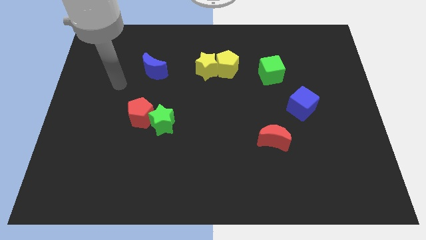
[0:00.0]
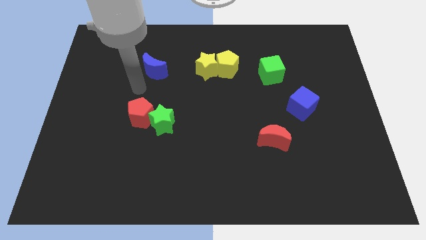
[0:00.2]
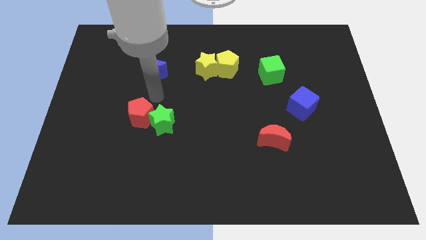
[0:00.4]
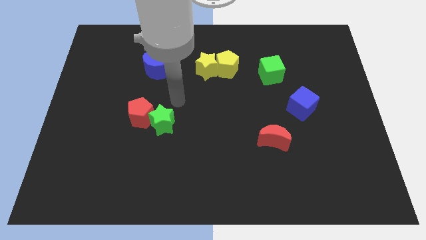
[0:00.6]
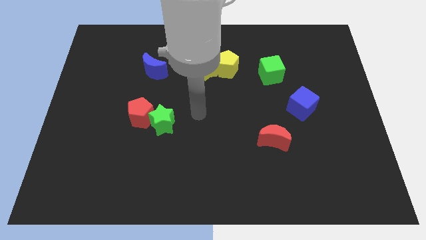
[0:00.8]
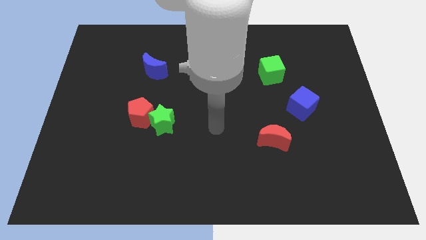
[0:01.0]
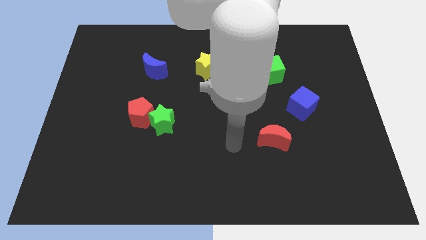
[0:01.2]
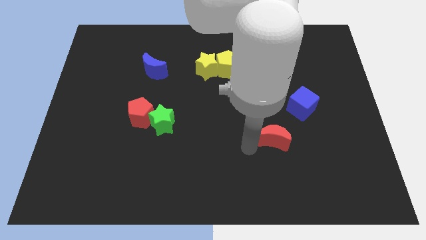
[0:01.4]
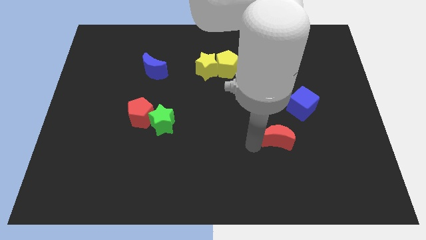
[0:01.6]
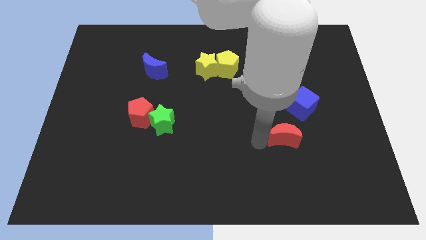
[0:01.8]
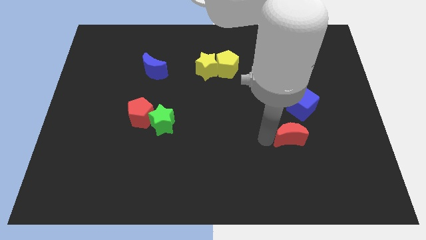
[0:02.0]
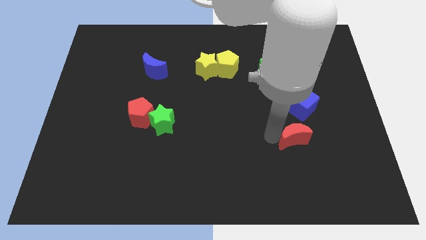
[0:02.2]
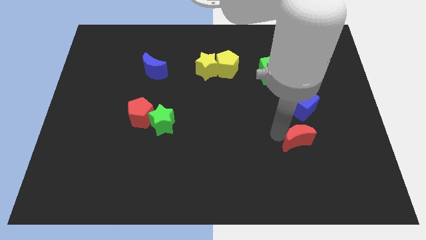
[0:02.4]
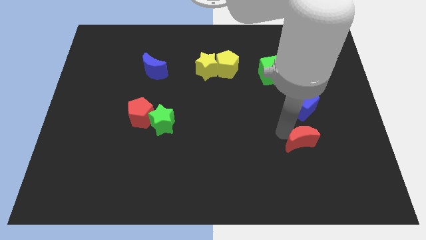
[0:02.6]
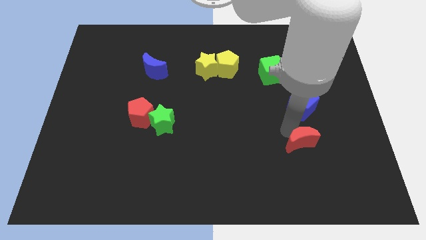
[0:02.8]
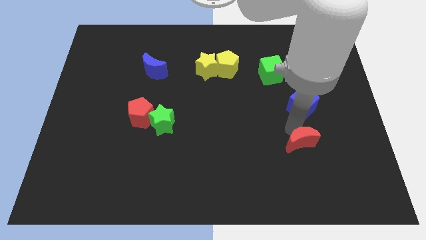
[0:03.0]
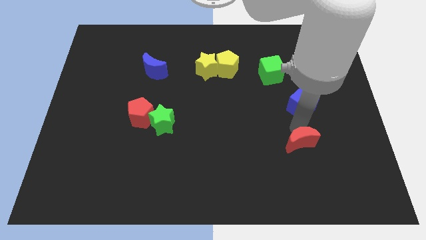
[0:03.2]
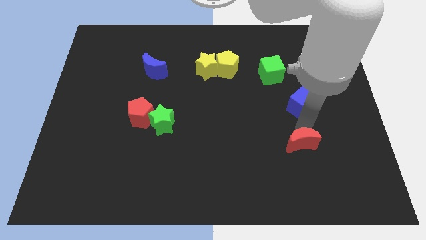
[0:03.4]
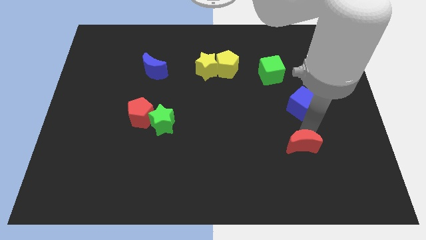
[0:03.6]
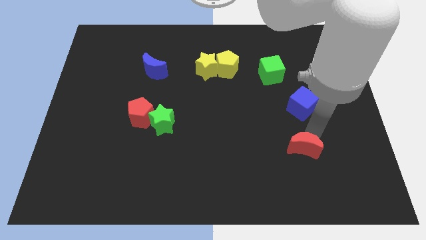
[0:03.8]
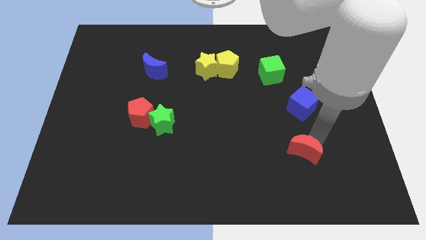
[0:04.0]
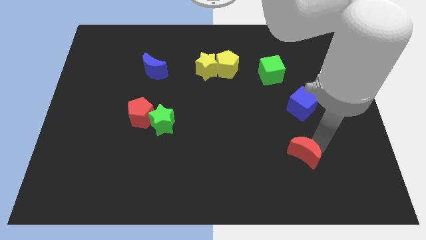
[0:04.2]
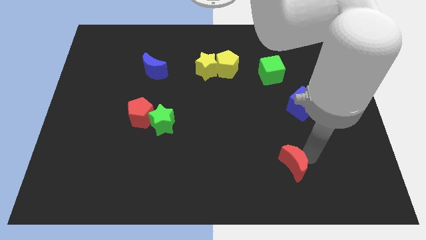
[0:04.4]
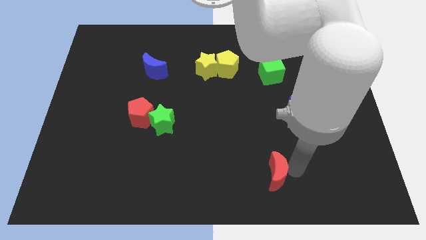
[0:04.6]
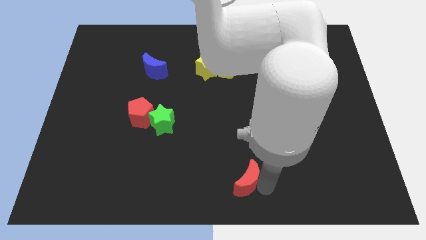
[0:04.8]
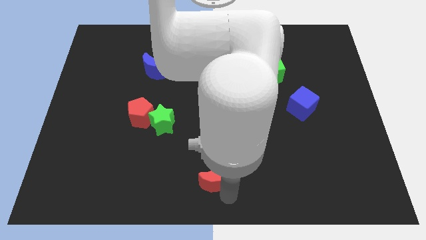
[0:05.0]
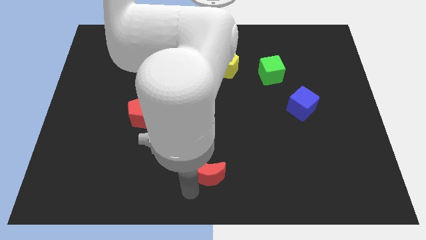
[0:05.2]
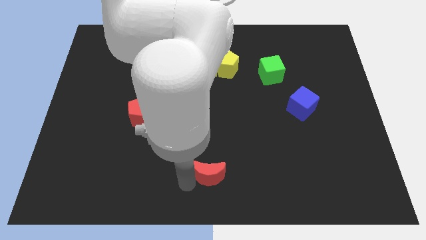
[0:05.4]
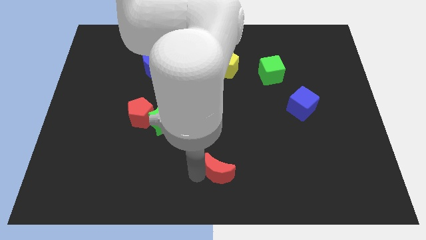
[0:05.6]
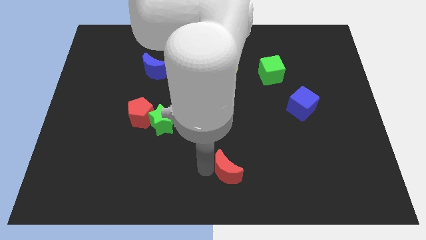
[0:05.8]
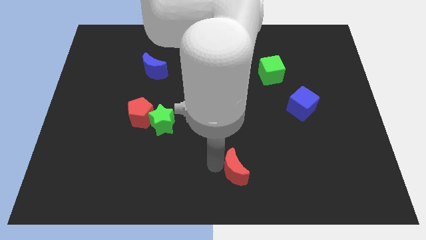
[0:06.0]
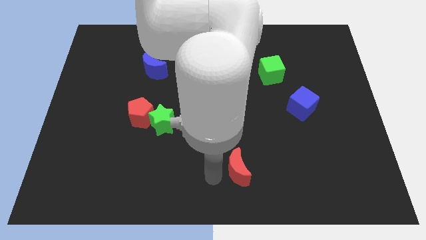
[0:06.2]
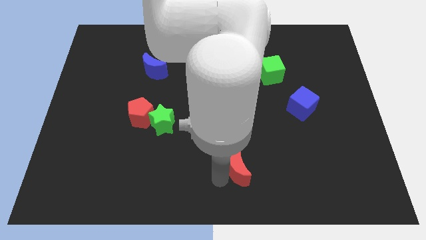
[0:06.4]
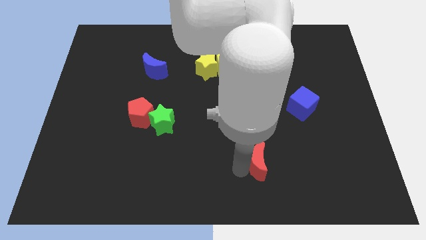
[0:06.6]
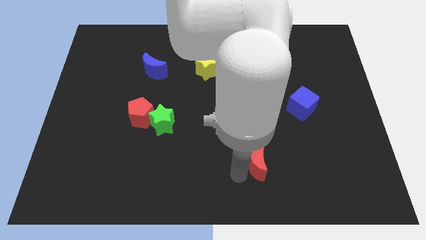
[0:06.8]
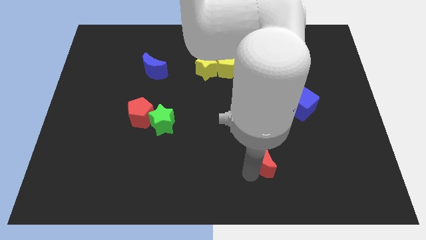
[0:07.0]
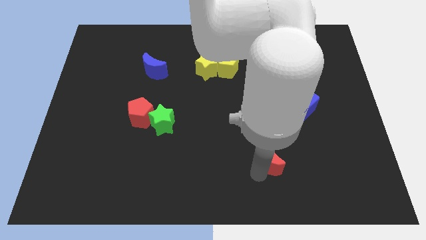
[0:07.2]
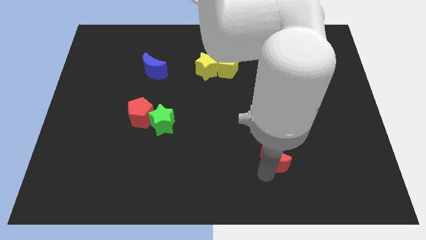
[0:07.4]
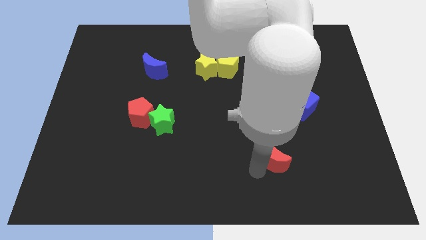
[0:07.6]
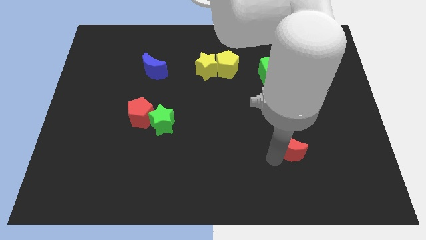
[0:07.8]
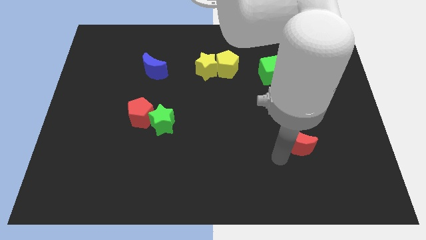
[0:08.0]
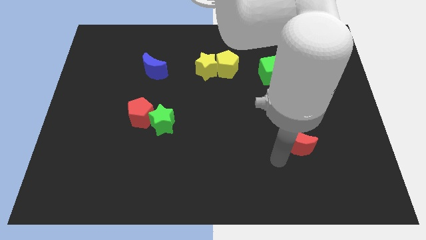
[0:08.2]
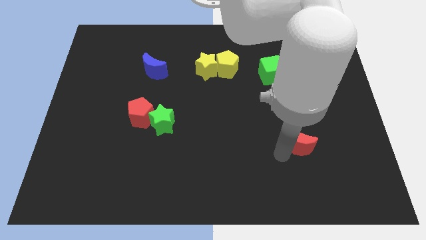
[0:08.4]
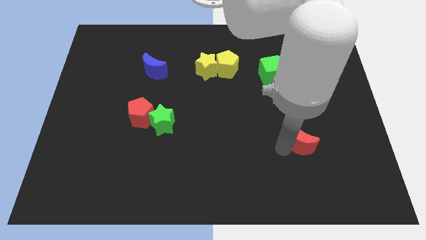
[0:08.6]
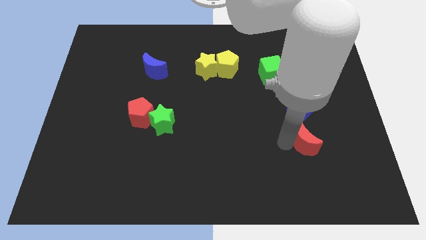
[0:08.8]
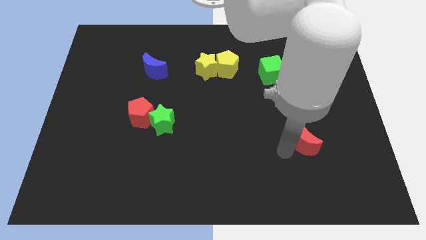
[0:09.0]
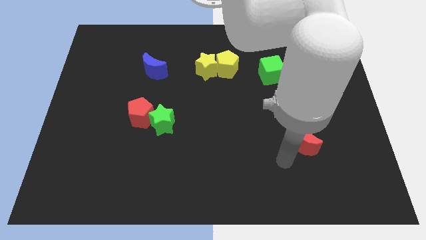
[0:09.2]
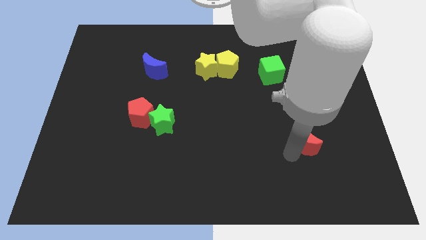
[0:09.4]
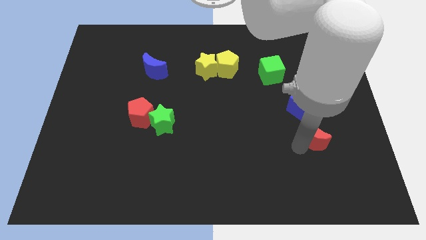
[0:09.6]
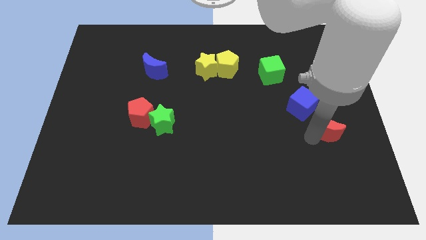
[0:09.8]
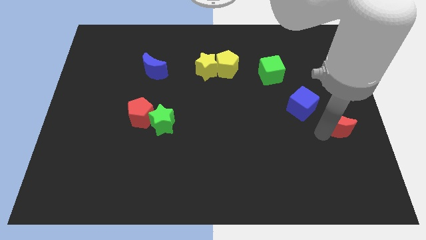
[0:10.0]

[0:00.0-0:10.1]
move the red moon to the center right
